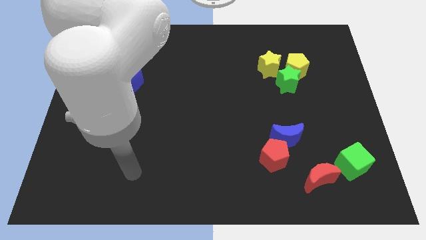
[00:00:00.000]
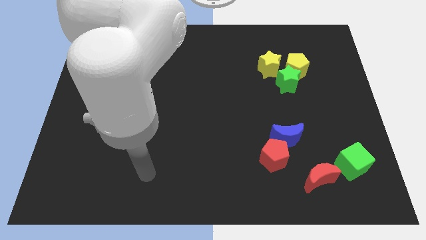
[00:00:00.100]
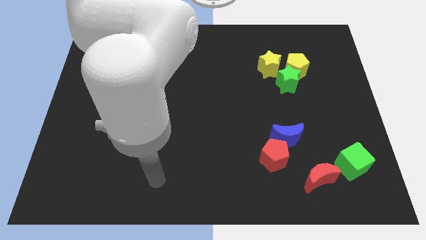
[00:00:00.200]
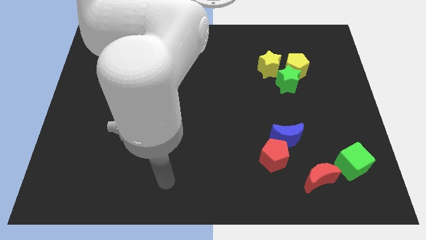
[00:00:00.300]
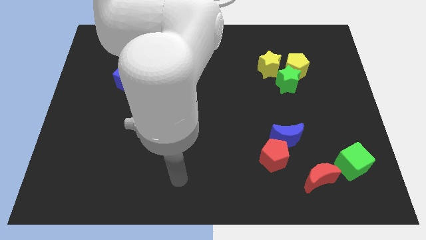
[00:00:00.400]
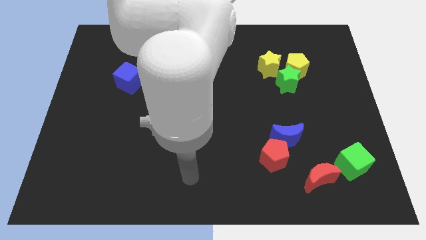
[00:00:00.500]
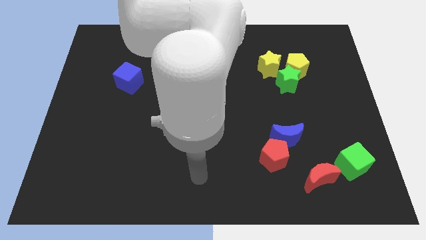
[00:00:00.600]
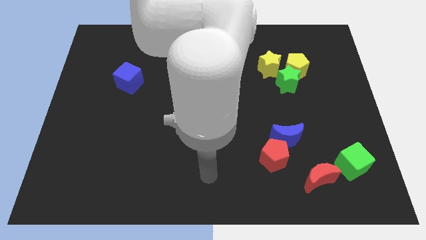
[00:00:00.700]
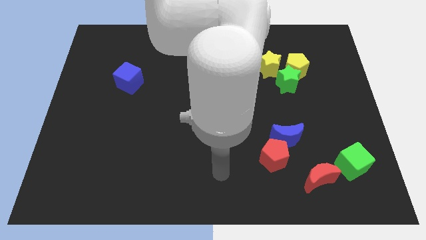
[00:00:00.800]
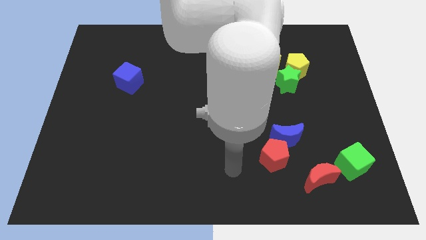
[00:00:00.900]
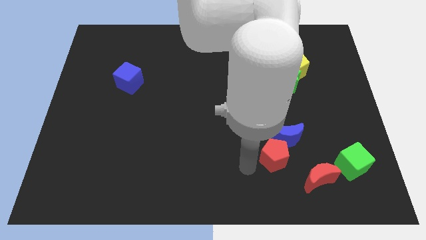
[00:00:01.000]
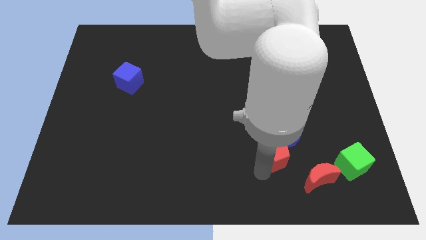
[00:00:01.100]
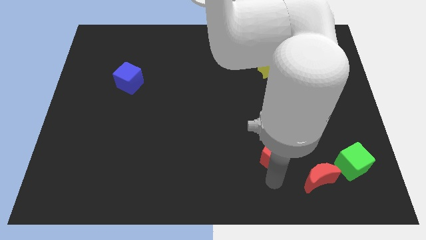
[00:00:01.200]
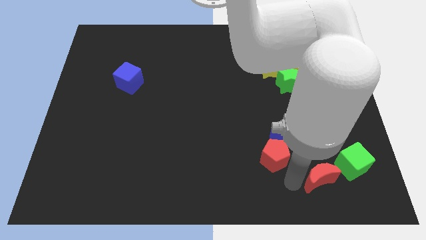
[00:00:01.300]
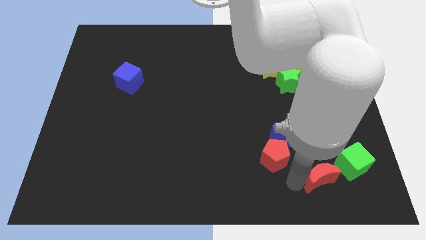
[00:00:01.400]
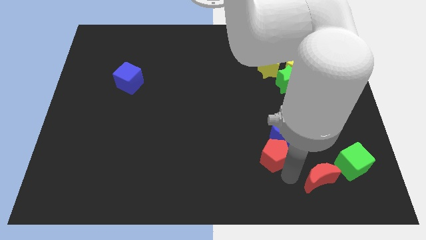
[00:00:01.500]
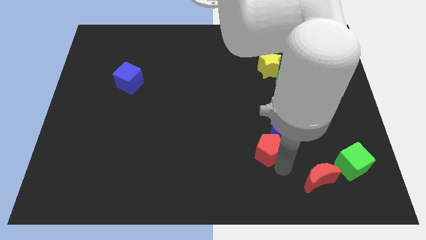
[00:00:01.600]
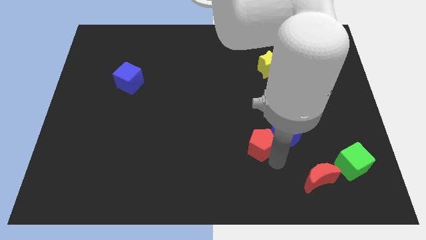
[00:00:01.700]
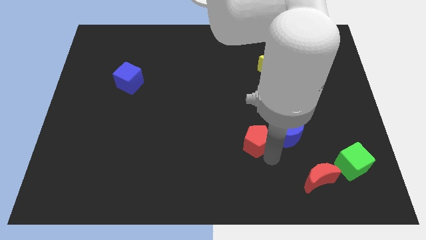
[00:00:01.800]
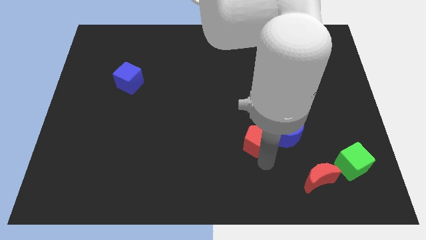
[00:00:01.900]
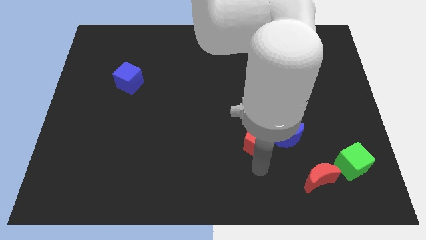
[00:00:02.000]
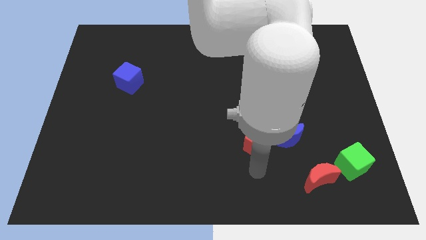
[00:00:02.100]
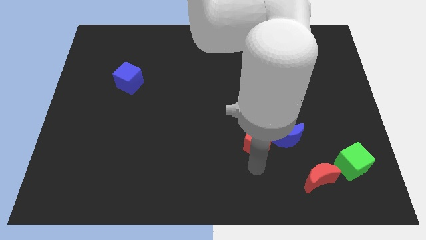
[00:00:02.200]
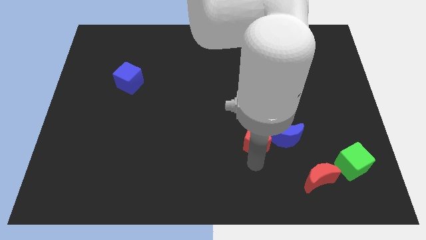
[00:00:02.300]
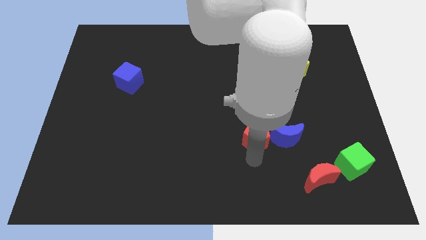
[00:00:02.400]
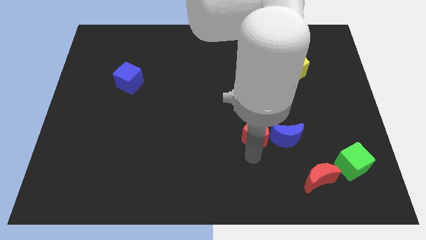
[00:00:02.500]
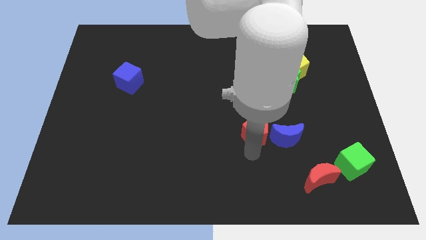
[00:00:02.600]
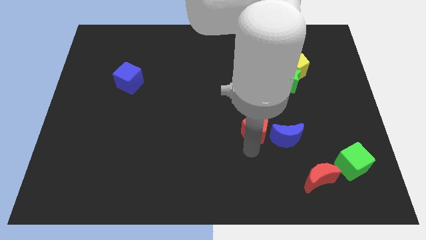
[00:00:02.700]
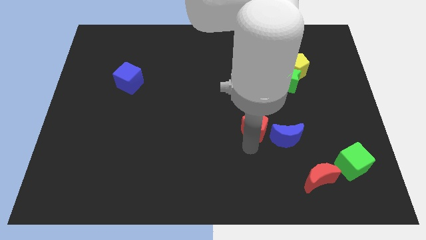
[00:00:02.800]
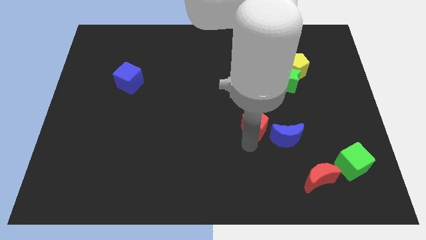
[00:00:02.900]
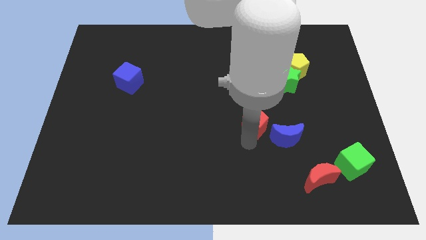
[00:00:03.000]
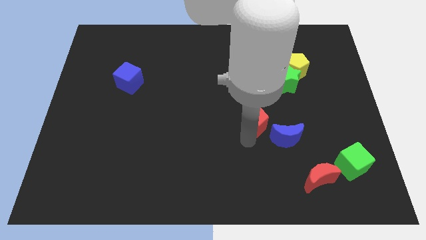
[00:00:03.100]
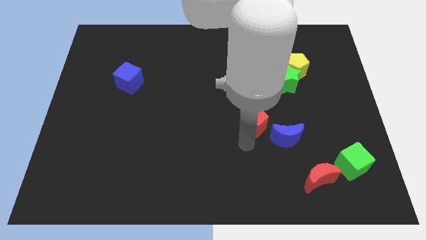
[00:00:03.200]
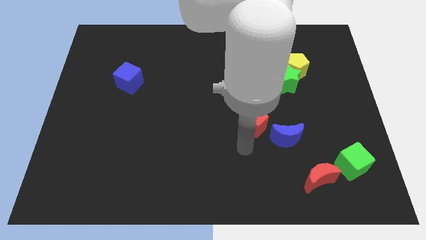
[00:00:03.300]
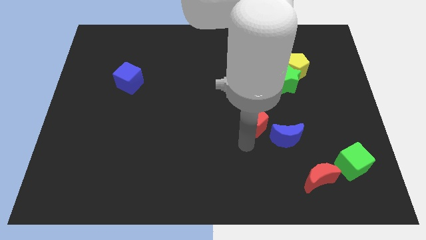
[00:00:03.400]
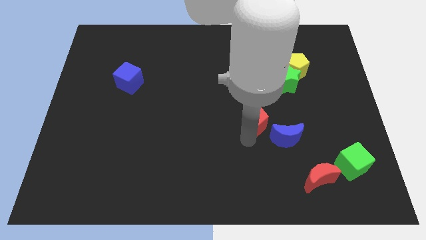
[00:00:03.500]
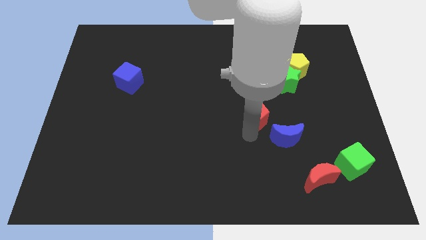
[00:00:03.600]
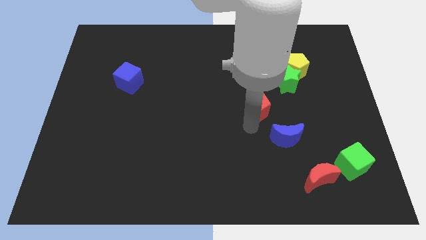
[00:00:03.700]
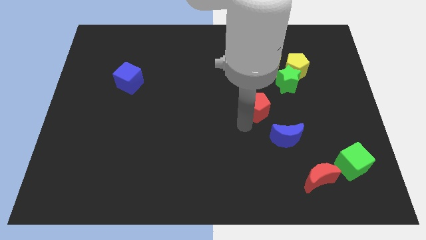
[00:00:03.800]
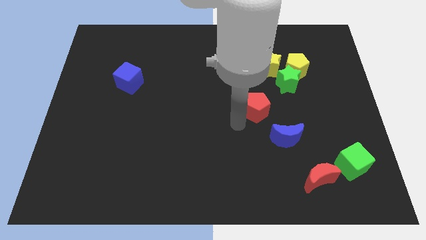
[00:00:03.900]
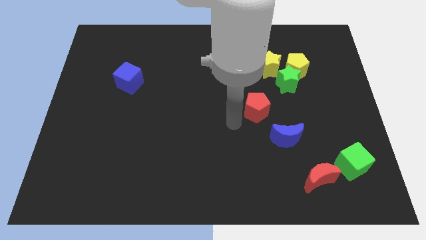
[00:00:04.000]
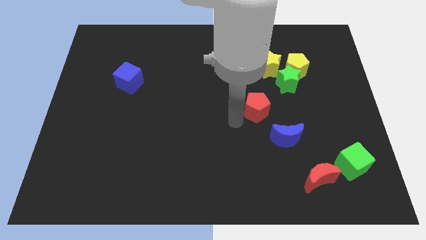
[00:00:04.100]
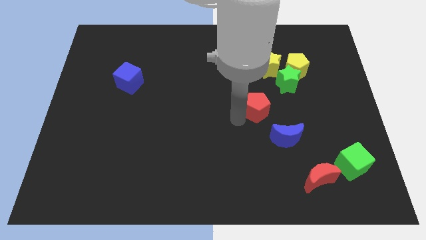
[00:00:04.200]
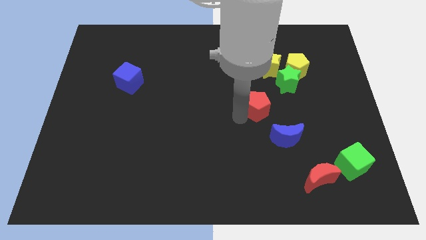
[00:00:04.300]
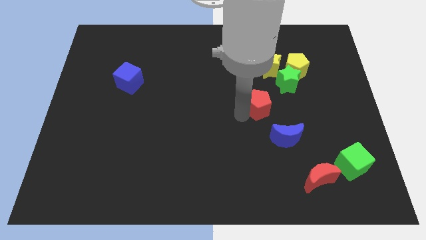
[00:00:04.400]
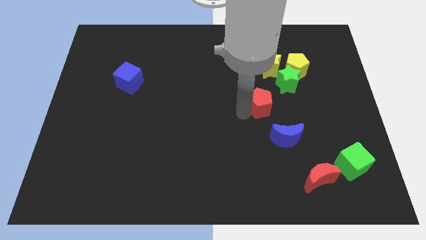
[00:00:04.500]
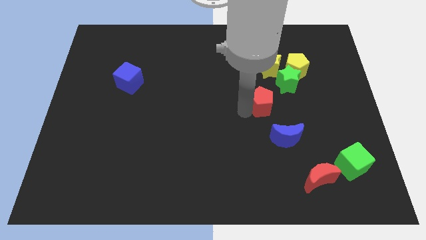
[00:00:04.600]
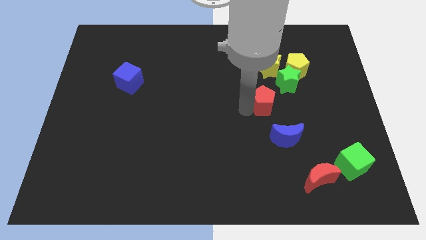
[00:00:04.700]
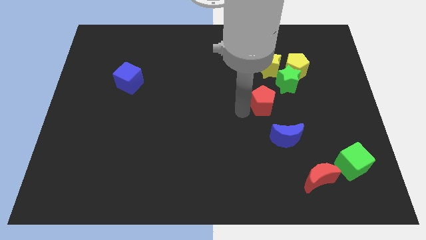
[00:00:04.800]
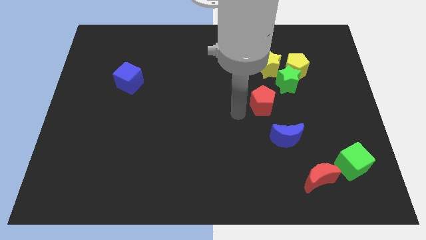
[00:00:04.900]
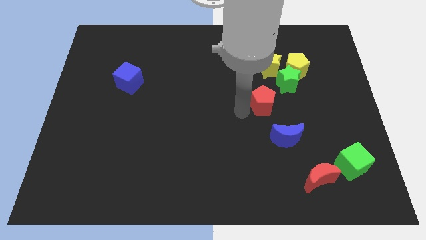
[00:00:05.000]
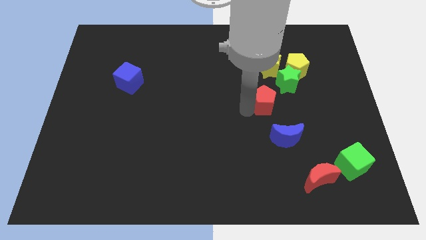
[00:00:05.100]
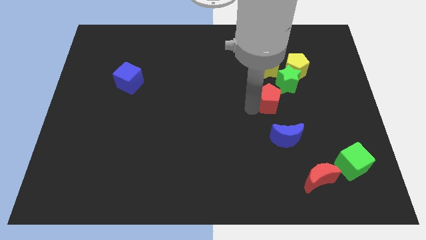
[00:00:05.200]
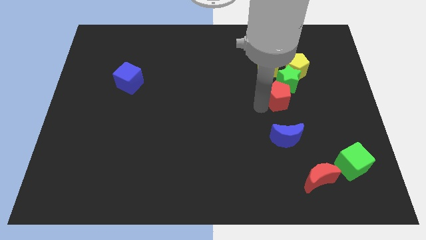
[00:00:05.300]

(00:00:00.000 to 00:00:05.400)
slide the red pentagon next to the green star

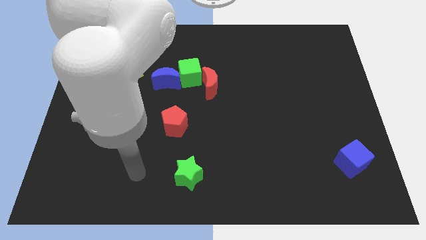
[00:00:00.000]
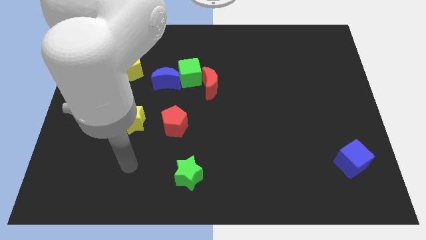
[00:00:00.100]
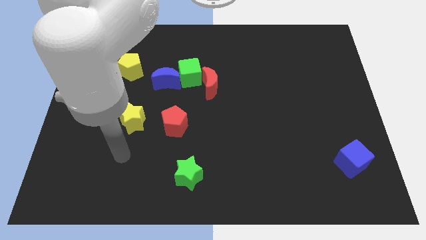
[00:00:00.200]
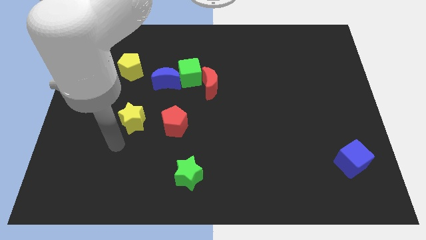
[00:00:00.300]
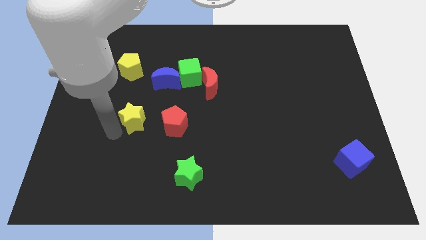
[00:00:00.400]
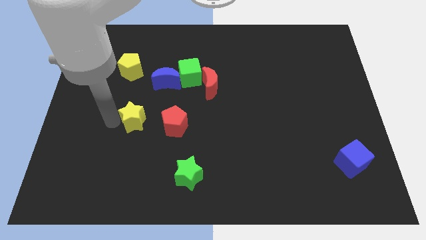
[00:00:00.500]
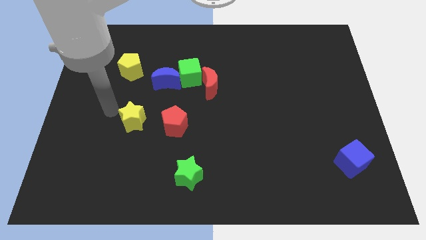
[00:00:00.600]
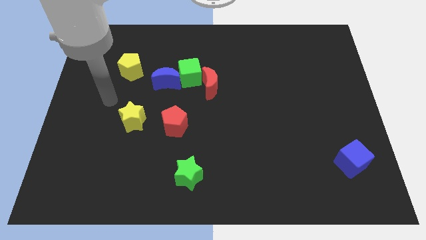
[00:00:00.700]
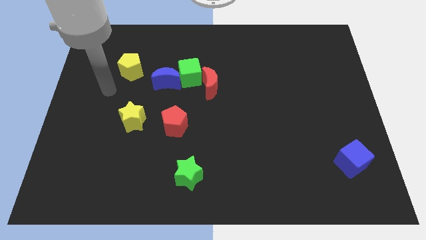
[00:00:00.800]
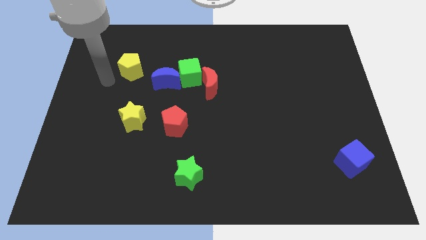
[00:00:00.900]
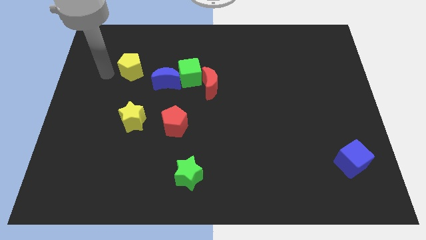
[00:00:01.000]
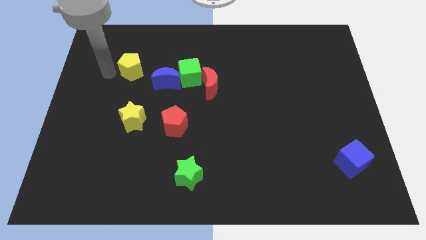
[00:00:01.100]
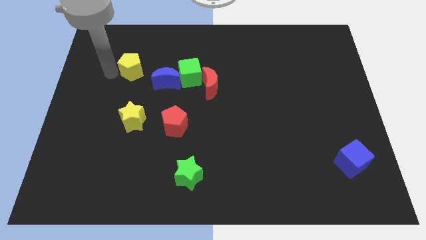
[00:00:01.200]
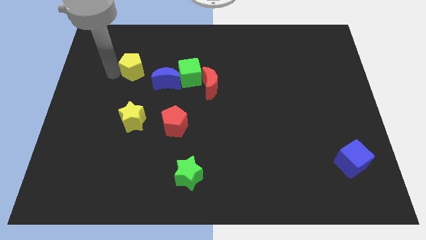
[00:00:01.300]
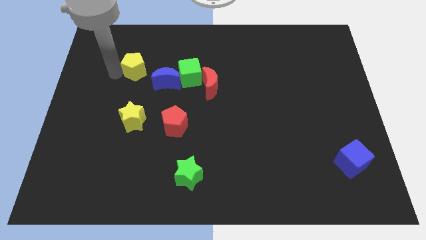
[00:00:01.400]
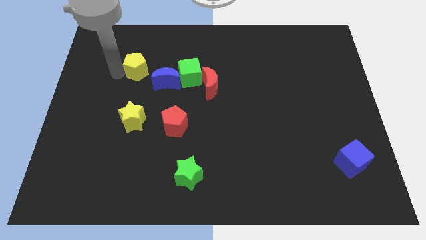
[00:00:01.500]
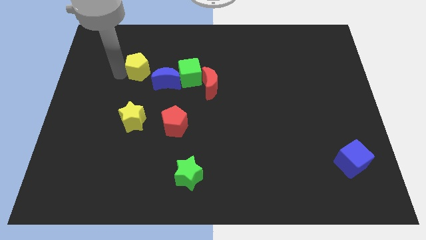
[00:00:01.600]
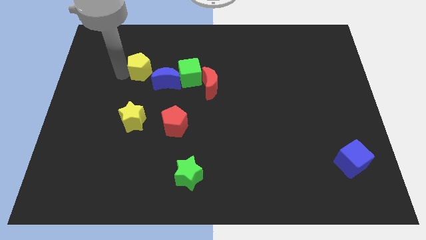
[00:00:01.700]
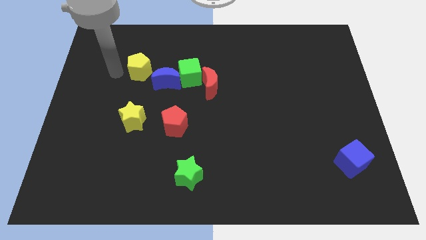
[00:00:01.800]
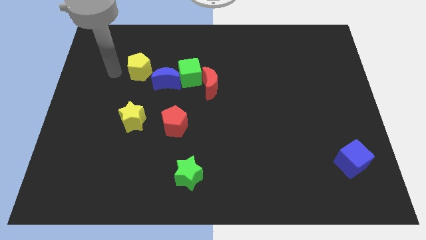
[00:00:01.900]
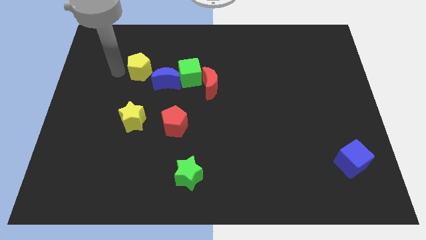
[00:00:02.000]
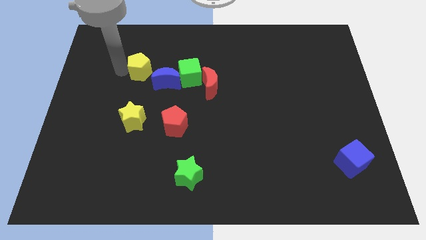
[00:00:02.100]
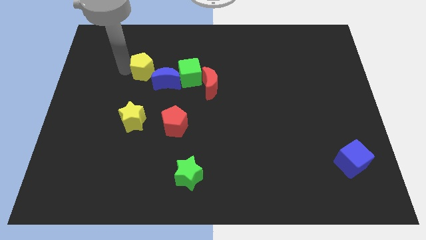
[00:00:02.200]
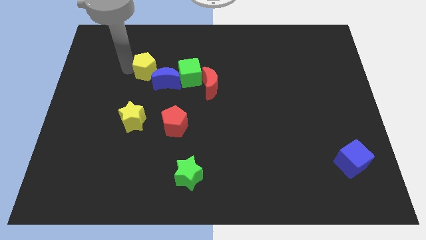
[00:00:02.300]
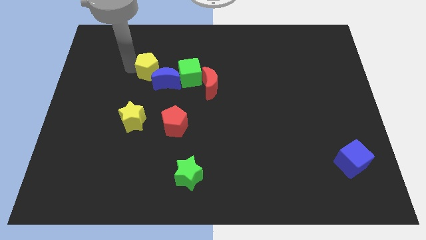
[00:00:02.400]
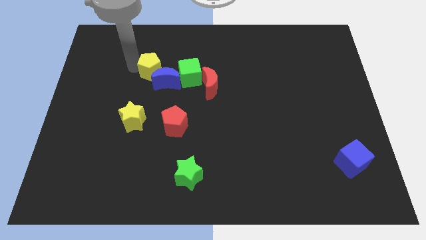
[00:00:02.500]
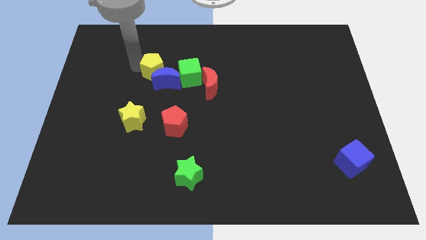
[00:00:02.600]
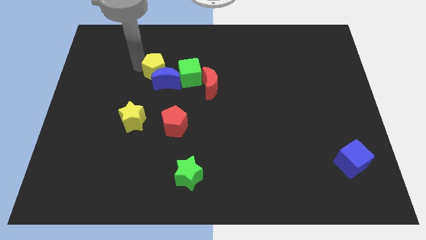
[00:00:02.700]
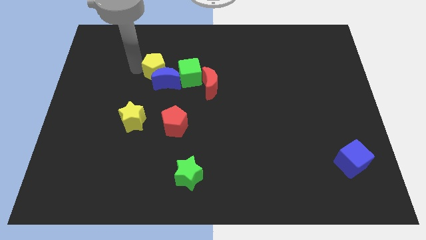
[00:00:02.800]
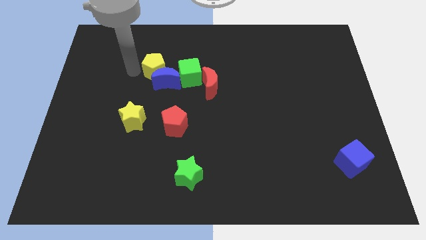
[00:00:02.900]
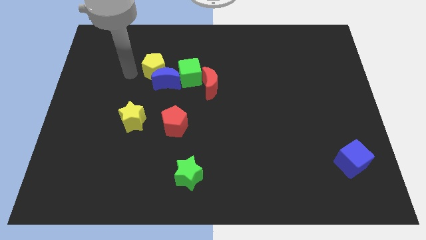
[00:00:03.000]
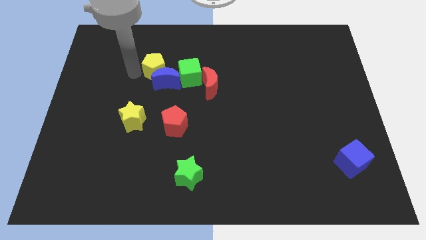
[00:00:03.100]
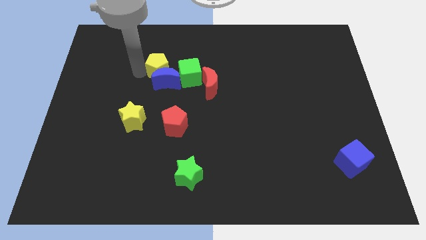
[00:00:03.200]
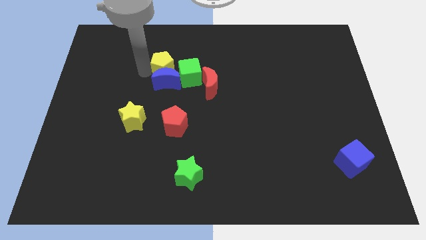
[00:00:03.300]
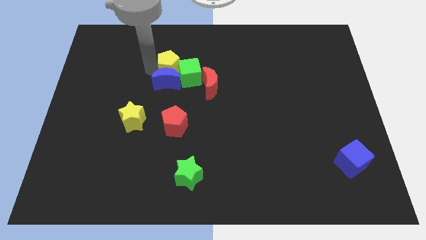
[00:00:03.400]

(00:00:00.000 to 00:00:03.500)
slide the yellow pentagon next to the green cube
